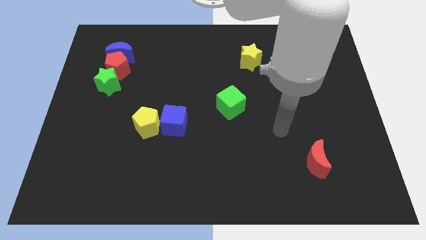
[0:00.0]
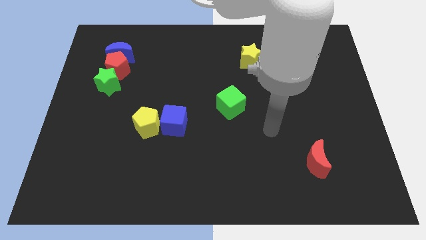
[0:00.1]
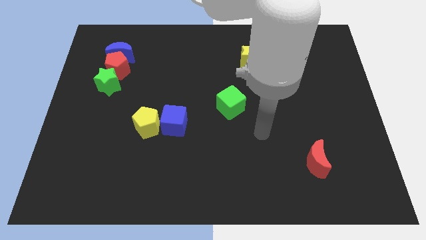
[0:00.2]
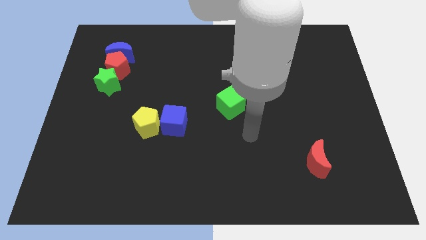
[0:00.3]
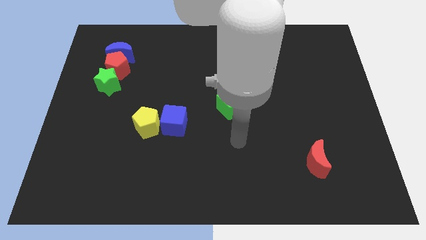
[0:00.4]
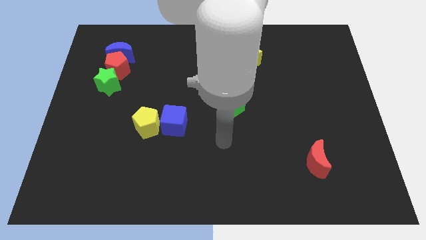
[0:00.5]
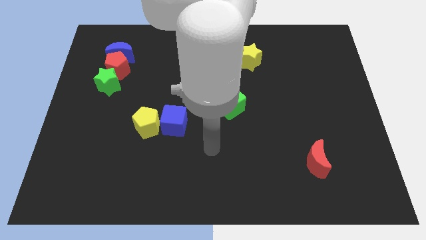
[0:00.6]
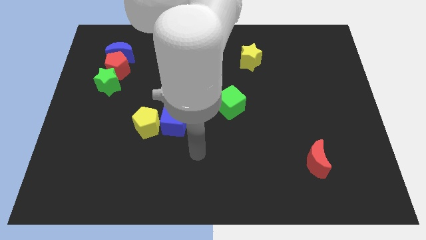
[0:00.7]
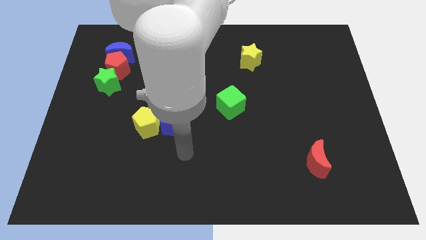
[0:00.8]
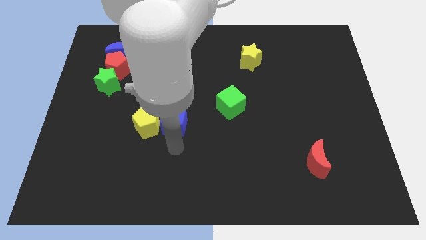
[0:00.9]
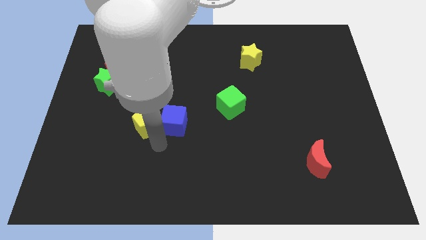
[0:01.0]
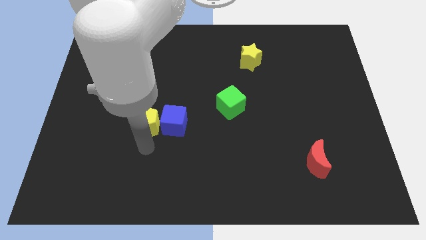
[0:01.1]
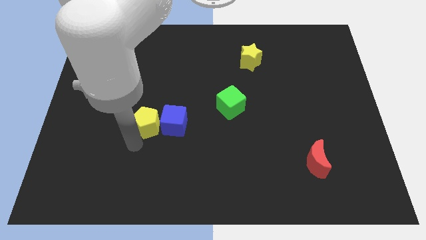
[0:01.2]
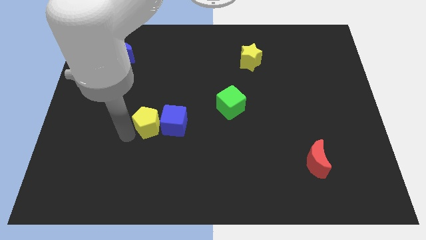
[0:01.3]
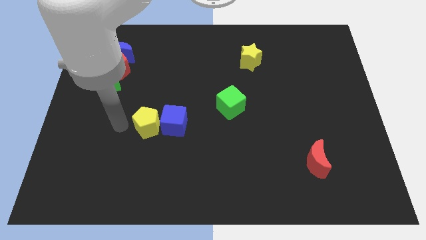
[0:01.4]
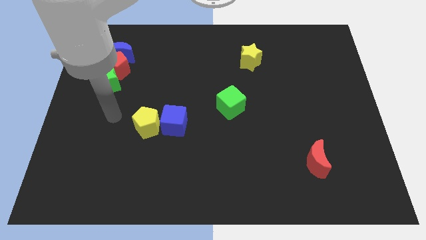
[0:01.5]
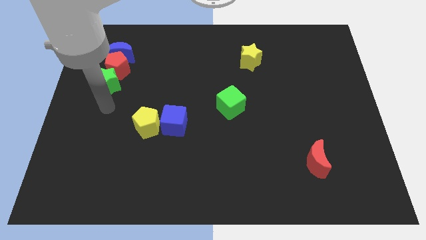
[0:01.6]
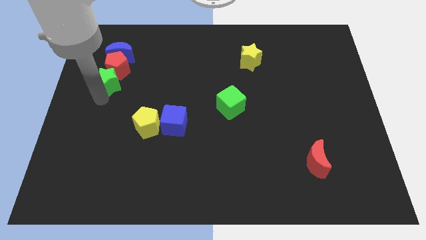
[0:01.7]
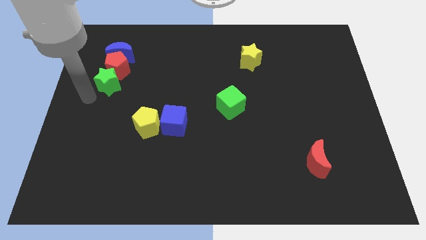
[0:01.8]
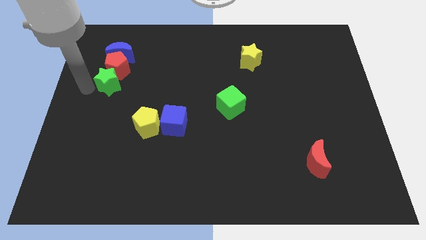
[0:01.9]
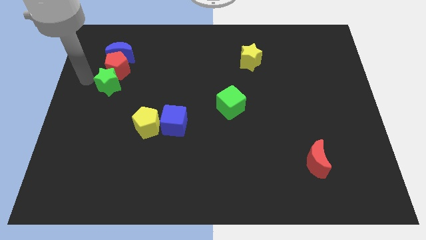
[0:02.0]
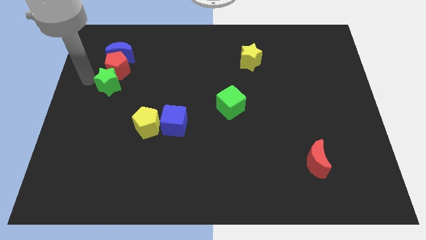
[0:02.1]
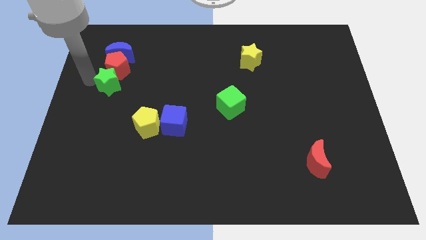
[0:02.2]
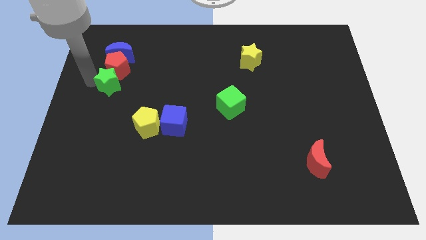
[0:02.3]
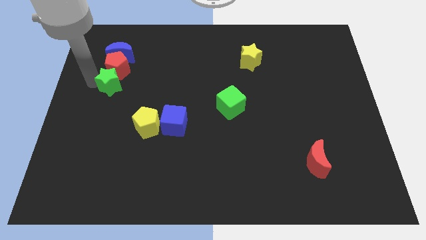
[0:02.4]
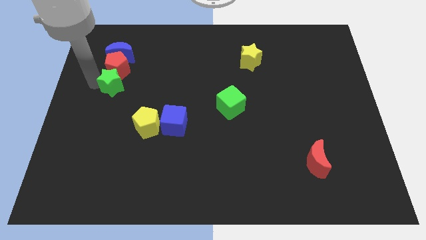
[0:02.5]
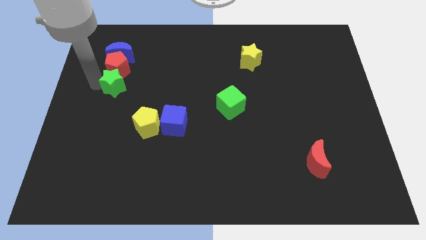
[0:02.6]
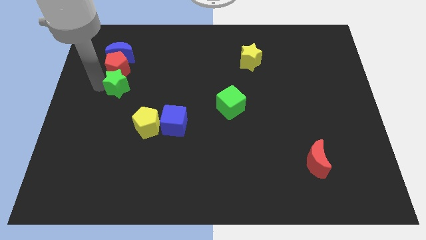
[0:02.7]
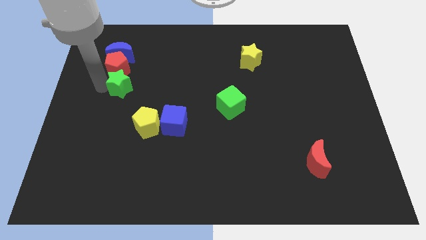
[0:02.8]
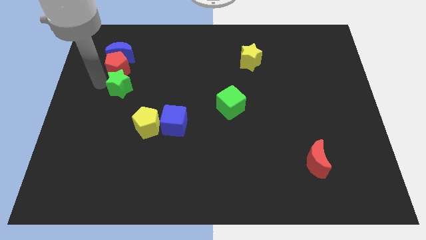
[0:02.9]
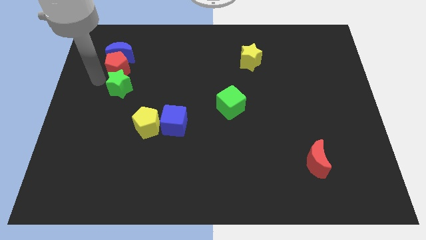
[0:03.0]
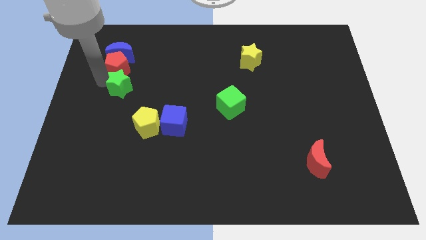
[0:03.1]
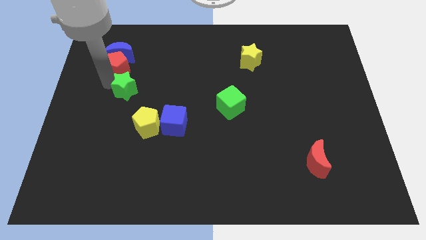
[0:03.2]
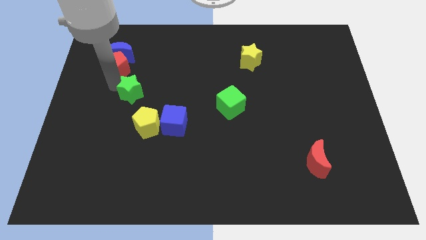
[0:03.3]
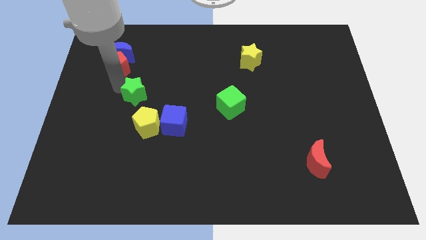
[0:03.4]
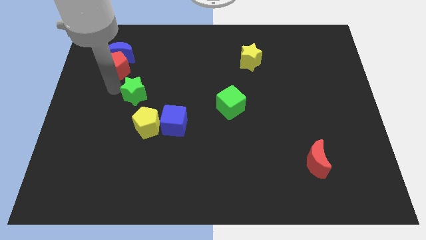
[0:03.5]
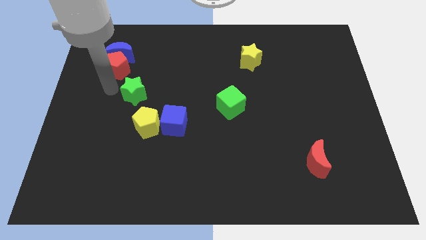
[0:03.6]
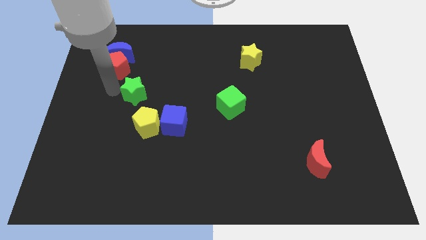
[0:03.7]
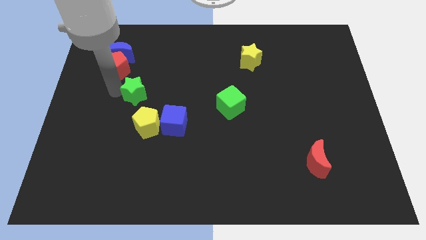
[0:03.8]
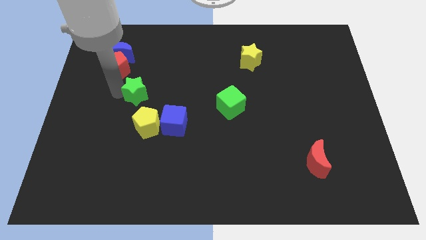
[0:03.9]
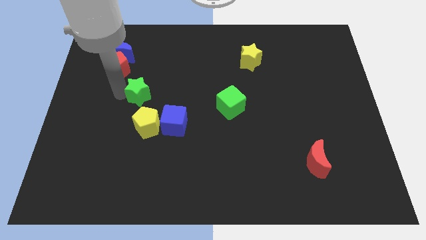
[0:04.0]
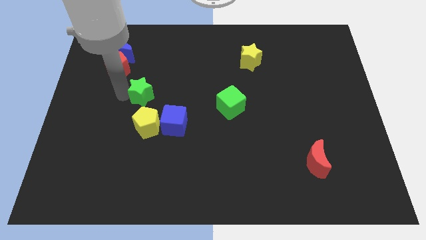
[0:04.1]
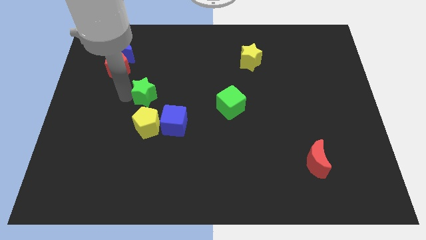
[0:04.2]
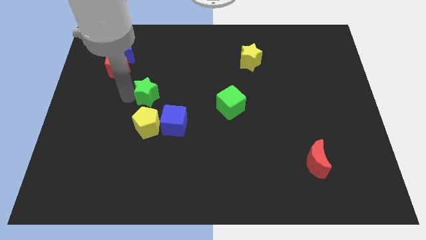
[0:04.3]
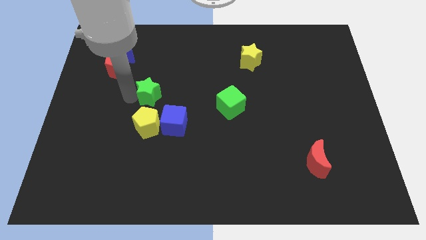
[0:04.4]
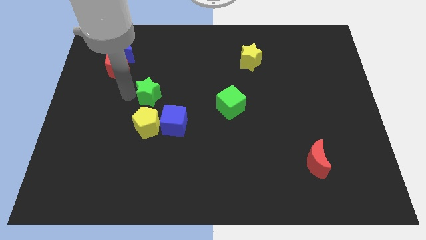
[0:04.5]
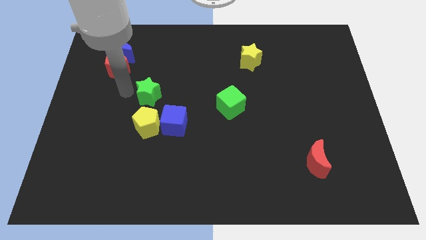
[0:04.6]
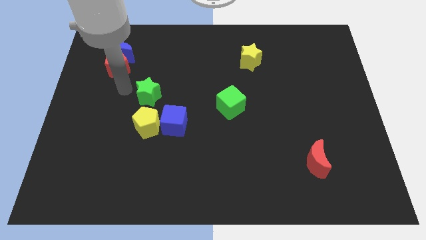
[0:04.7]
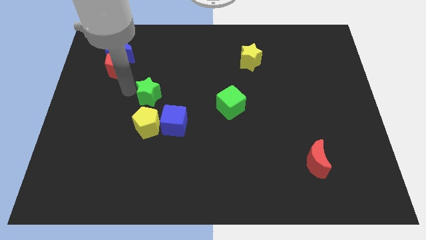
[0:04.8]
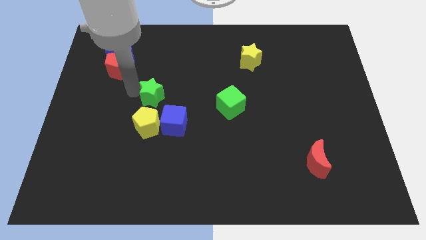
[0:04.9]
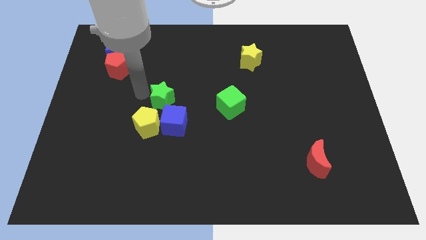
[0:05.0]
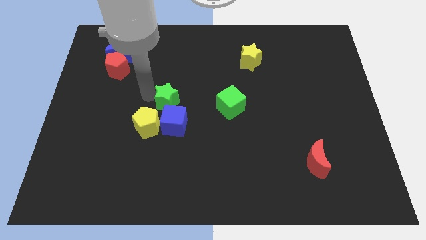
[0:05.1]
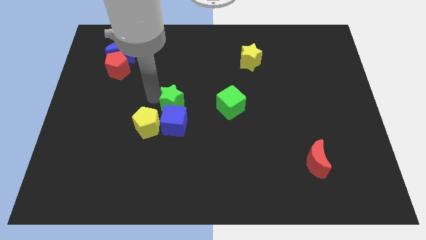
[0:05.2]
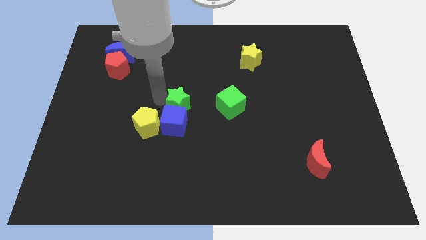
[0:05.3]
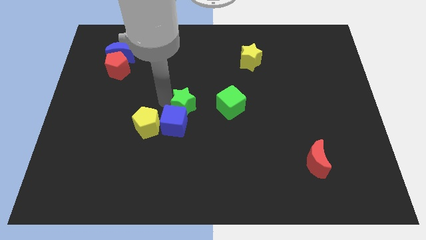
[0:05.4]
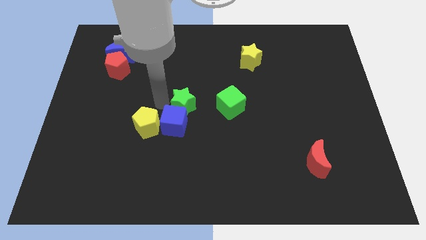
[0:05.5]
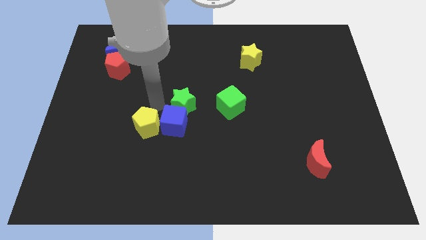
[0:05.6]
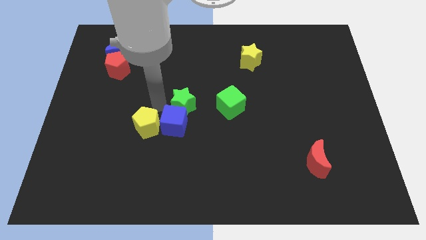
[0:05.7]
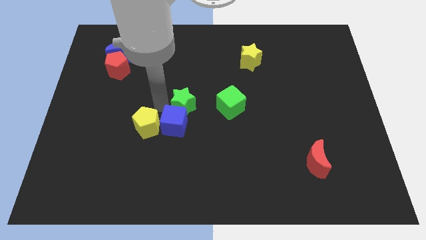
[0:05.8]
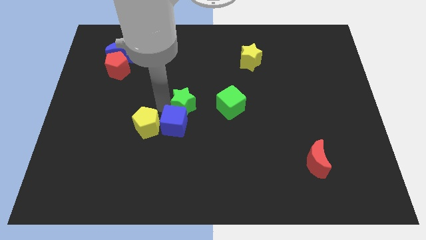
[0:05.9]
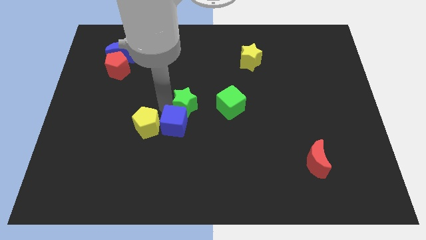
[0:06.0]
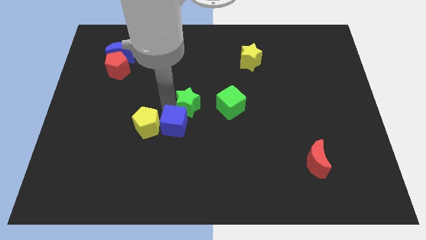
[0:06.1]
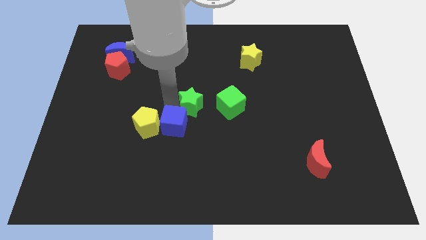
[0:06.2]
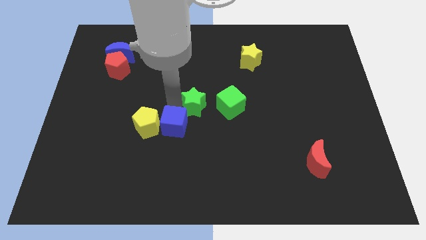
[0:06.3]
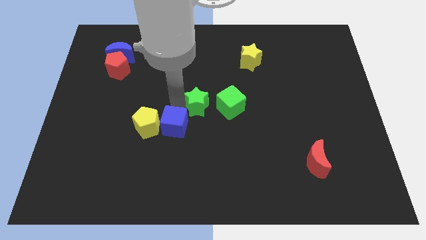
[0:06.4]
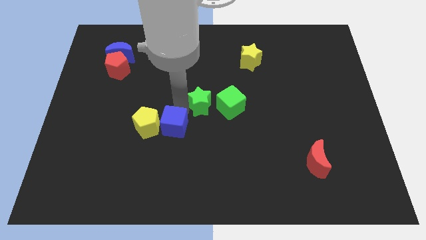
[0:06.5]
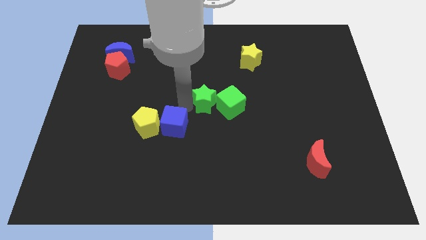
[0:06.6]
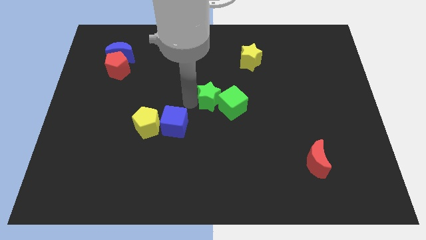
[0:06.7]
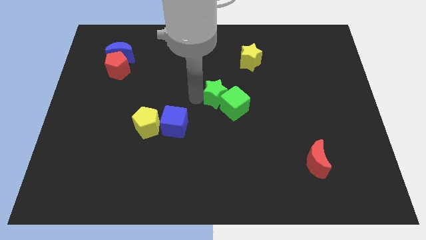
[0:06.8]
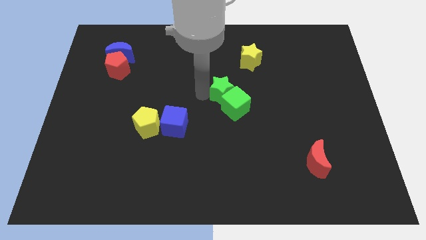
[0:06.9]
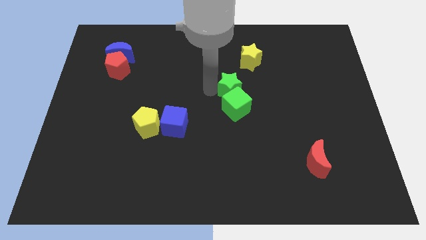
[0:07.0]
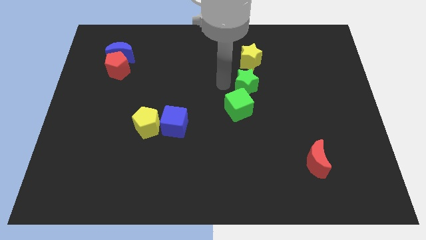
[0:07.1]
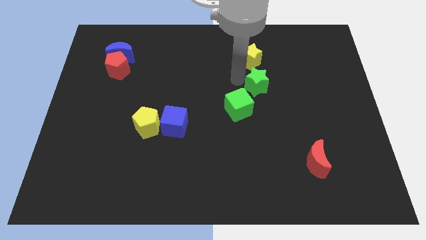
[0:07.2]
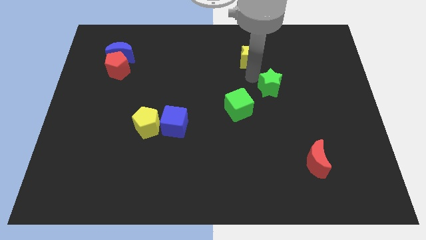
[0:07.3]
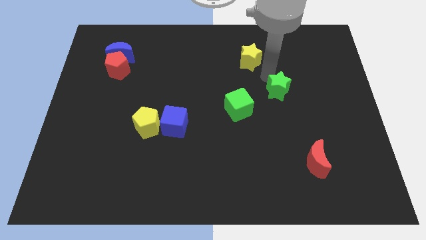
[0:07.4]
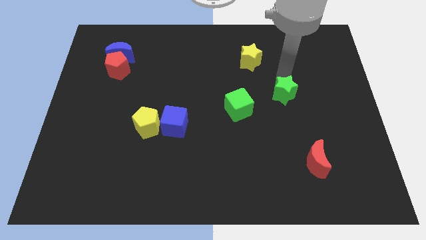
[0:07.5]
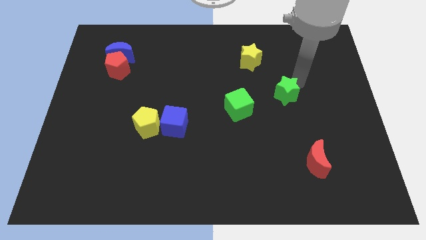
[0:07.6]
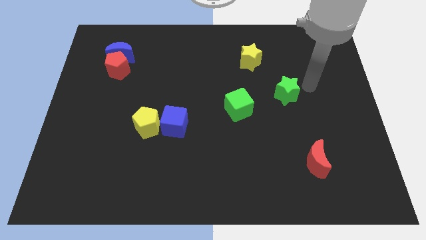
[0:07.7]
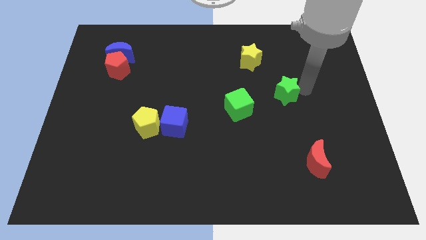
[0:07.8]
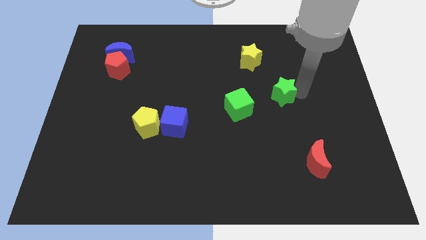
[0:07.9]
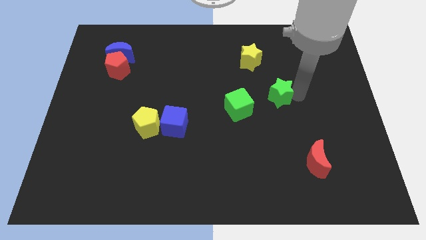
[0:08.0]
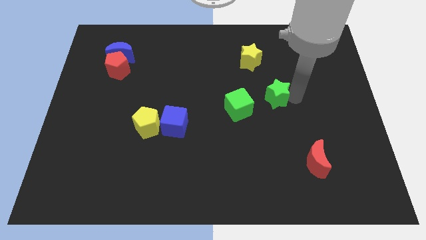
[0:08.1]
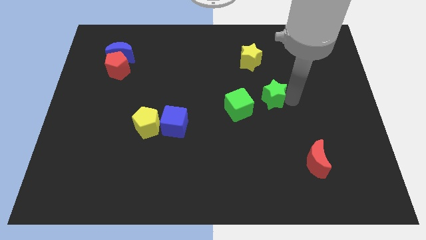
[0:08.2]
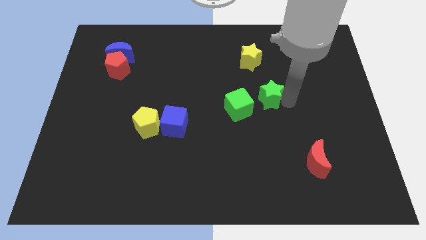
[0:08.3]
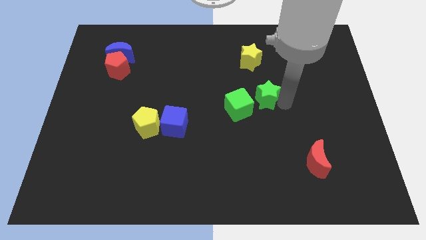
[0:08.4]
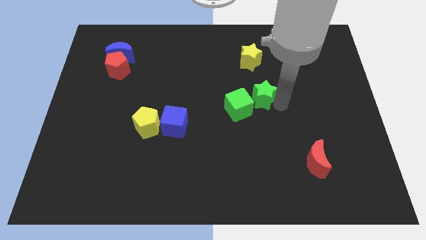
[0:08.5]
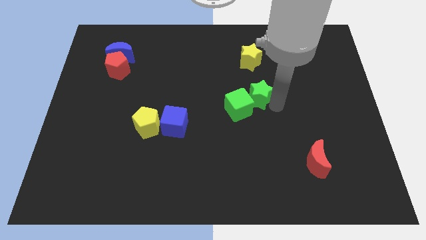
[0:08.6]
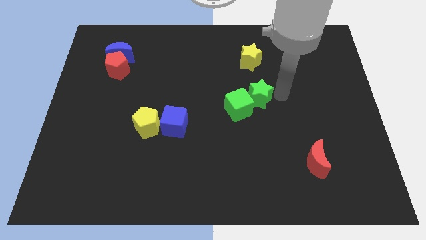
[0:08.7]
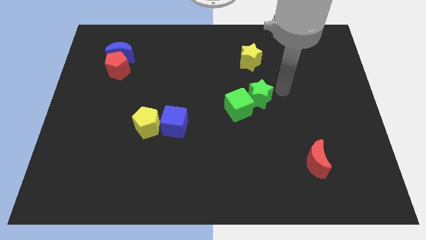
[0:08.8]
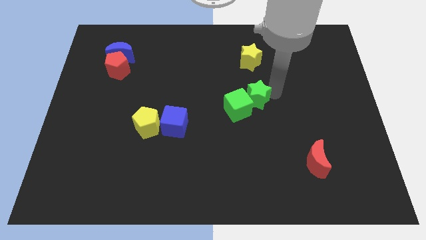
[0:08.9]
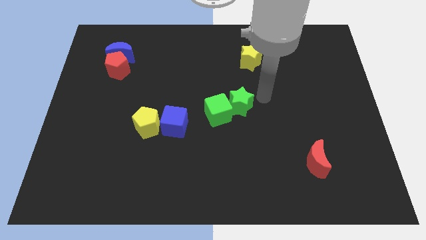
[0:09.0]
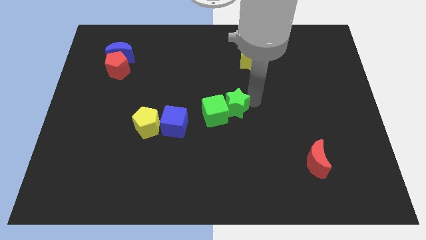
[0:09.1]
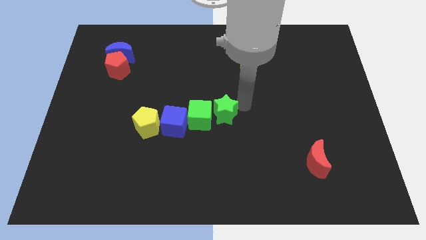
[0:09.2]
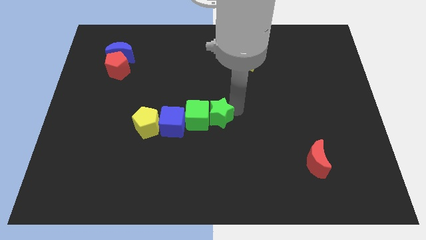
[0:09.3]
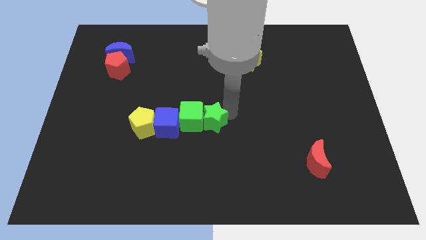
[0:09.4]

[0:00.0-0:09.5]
move the green star to the right side of the yellow pentagon
